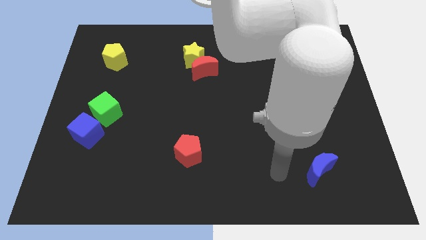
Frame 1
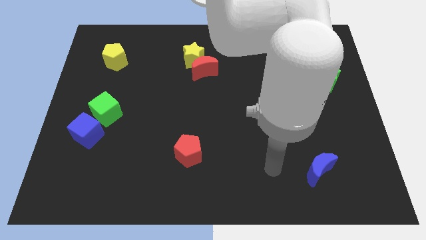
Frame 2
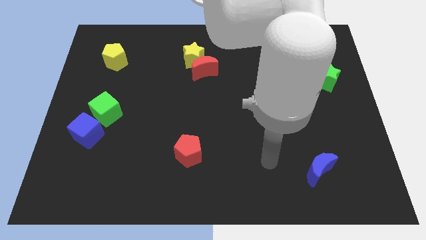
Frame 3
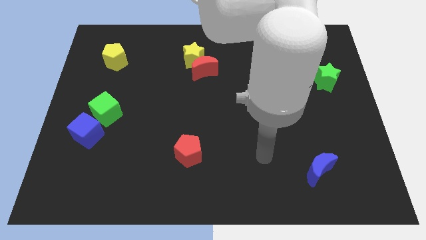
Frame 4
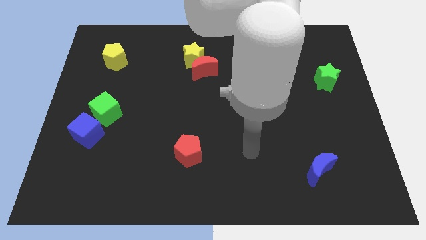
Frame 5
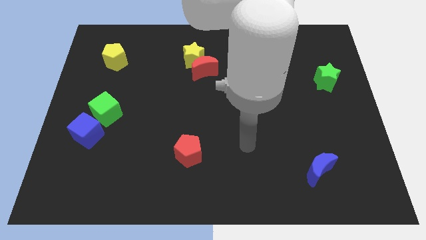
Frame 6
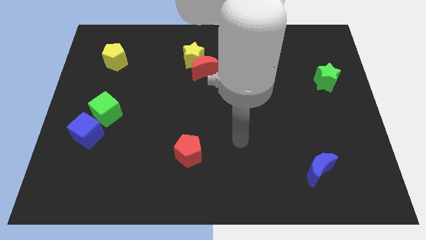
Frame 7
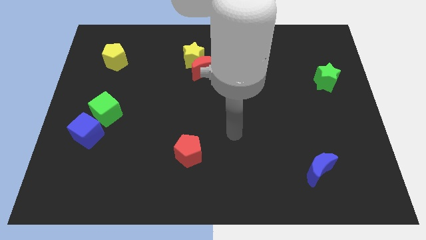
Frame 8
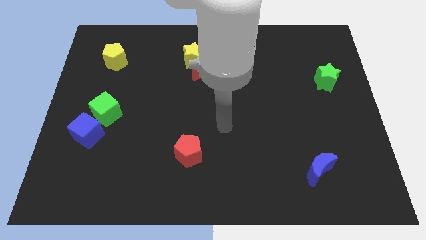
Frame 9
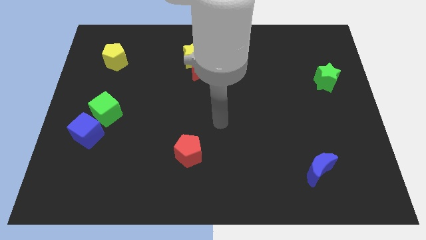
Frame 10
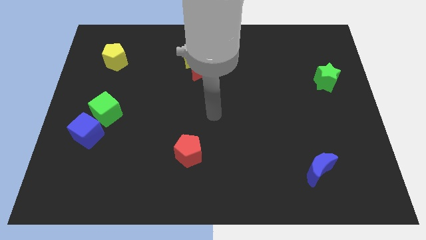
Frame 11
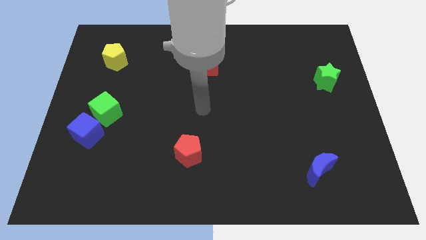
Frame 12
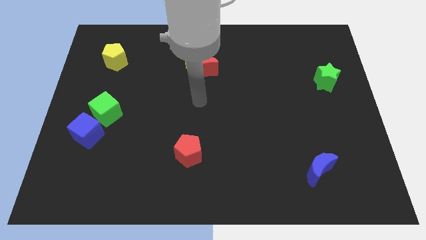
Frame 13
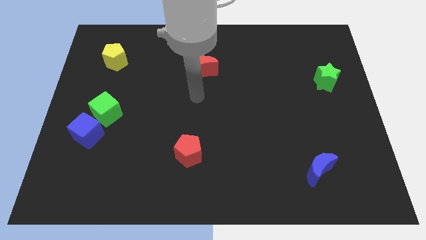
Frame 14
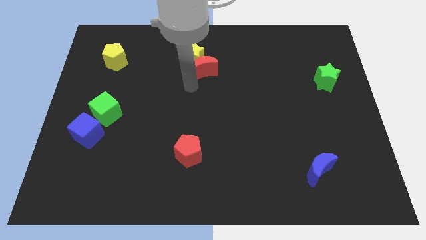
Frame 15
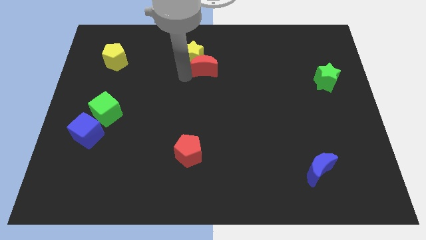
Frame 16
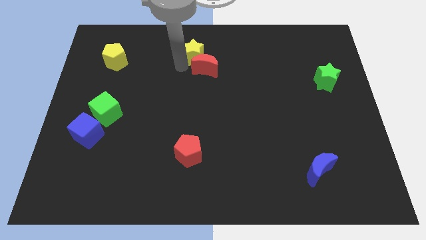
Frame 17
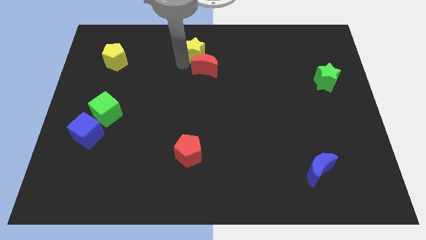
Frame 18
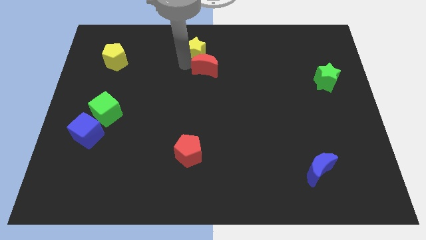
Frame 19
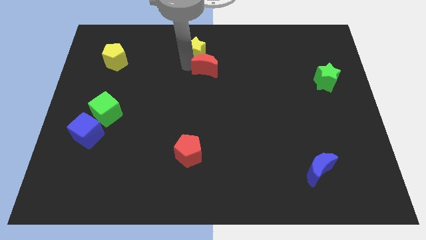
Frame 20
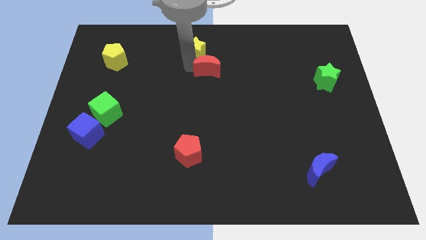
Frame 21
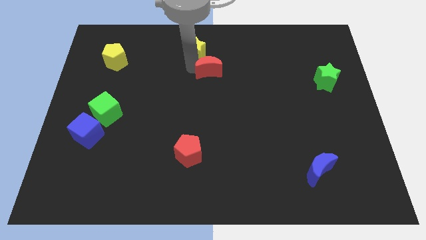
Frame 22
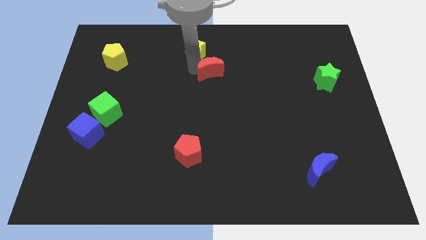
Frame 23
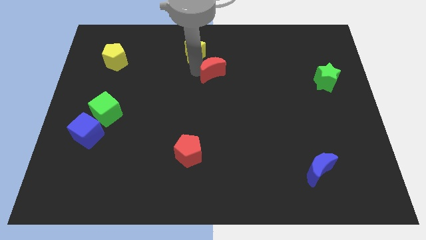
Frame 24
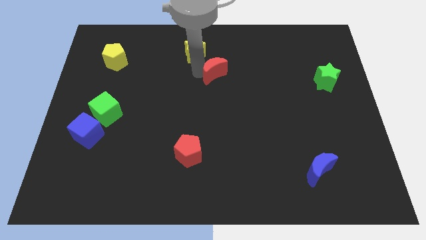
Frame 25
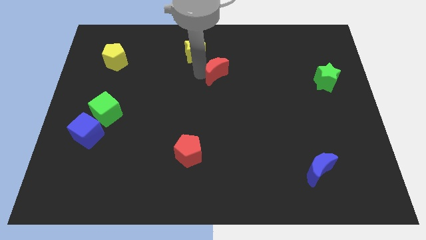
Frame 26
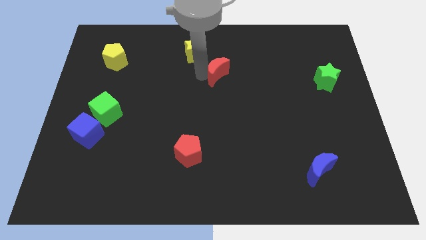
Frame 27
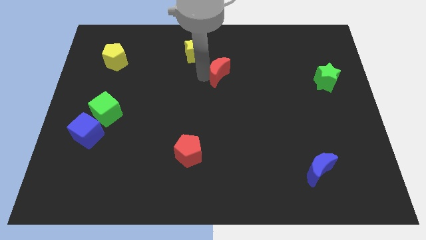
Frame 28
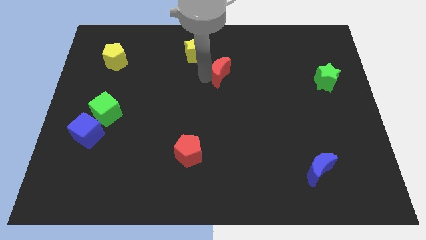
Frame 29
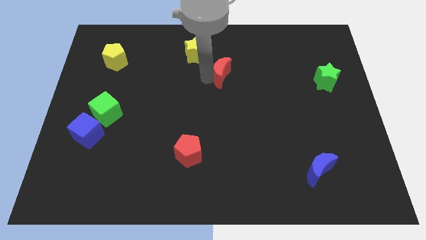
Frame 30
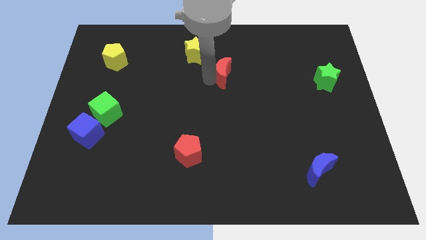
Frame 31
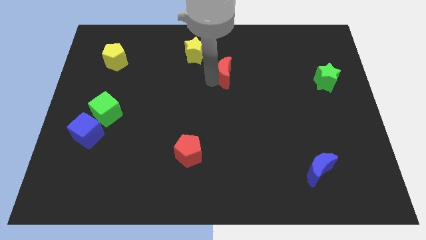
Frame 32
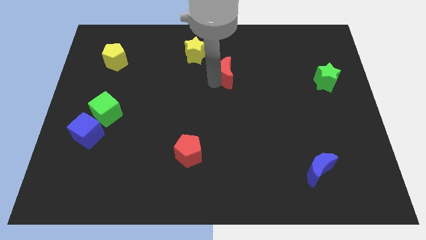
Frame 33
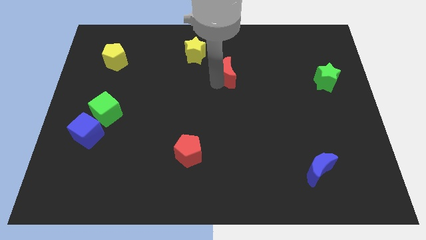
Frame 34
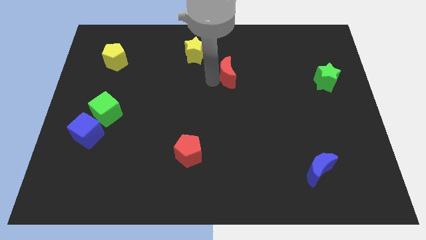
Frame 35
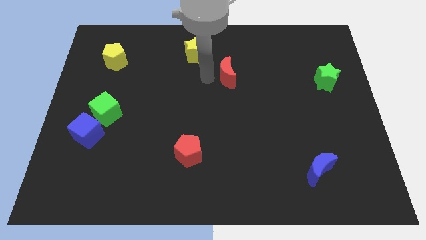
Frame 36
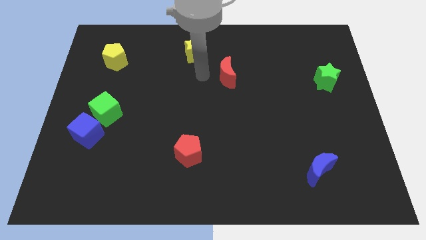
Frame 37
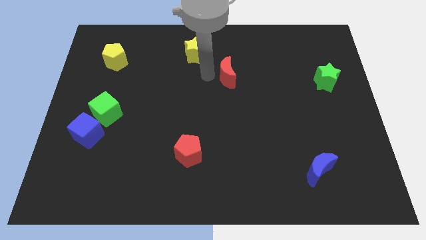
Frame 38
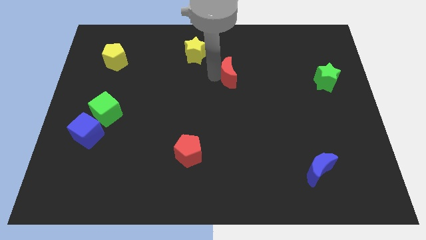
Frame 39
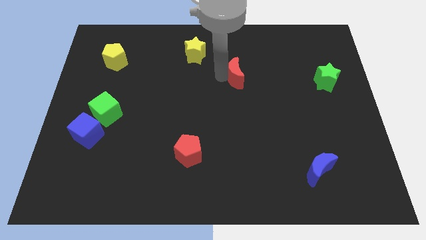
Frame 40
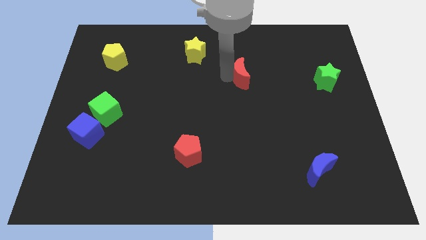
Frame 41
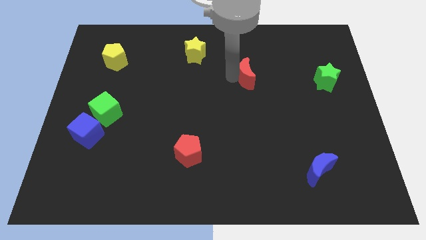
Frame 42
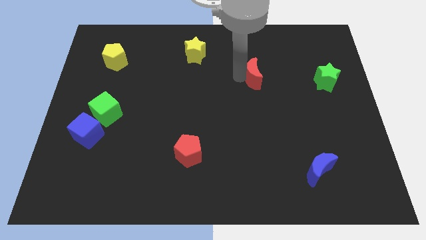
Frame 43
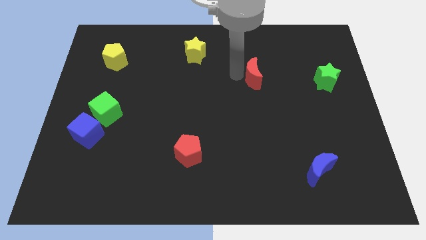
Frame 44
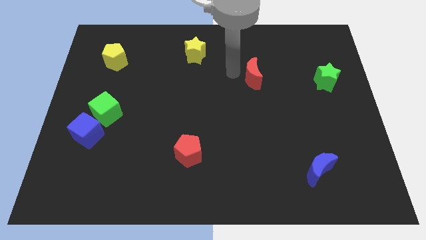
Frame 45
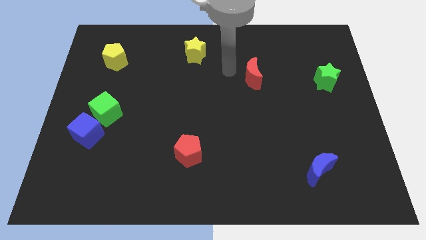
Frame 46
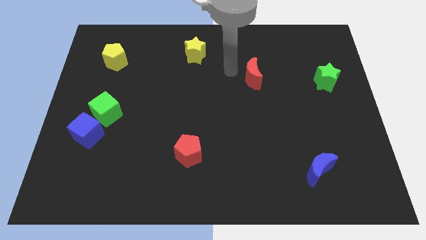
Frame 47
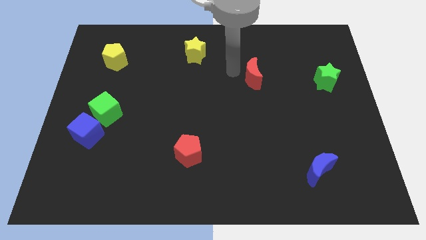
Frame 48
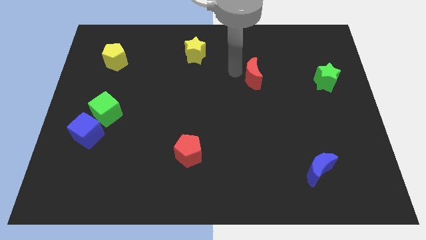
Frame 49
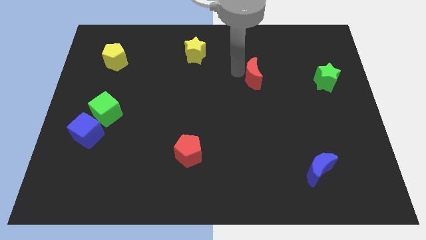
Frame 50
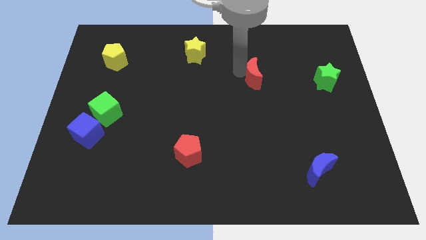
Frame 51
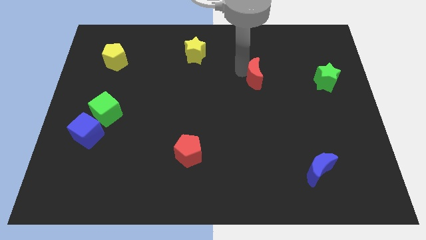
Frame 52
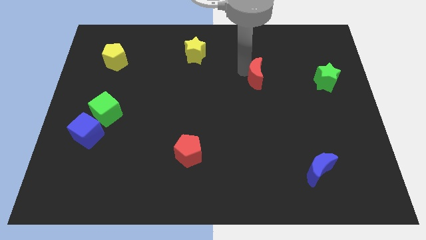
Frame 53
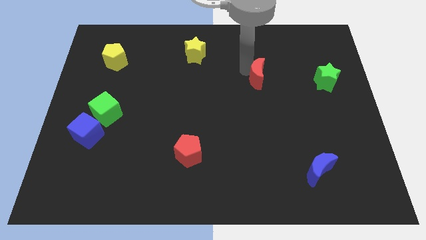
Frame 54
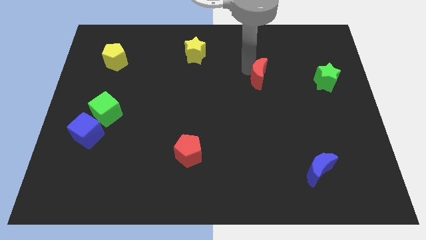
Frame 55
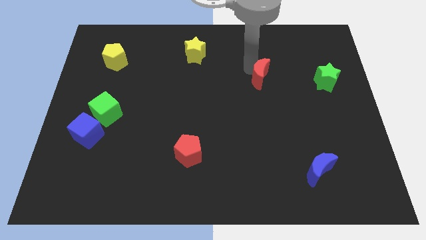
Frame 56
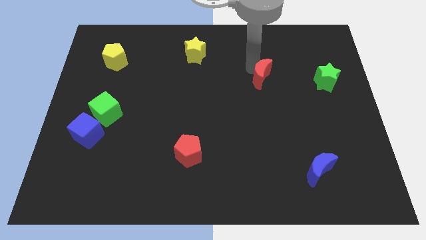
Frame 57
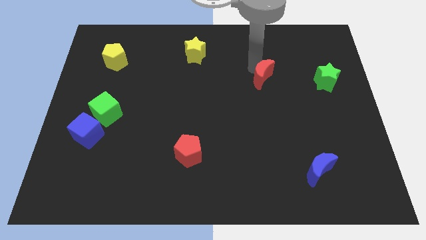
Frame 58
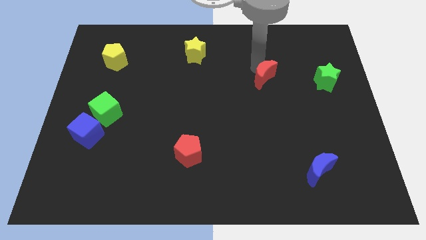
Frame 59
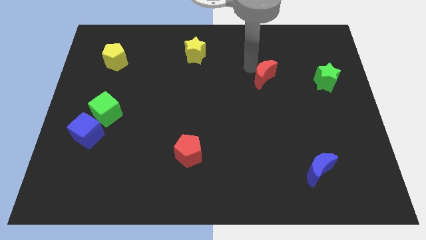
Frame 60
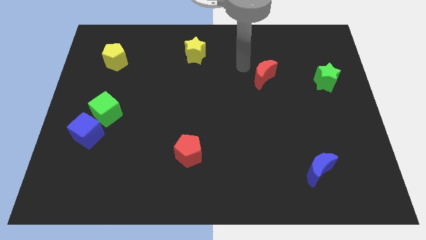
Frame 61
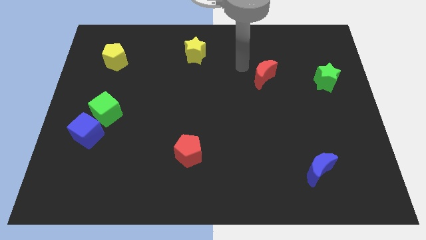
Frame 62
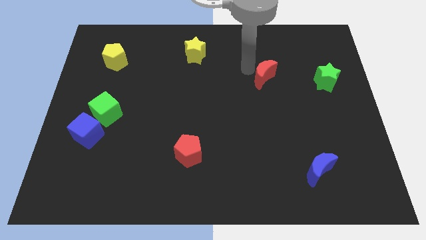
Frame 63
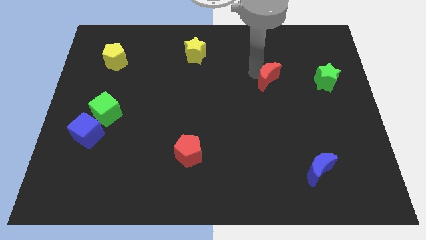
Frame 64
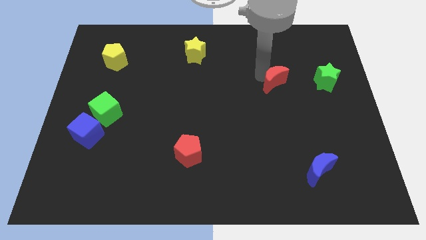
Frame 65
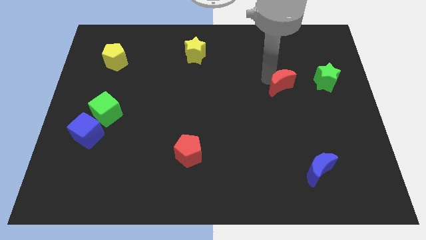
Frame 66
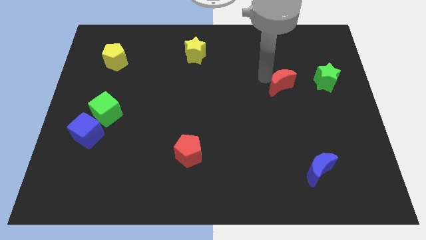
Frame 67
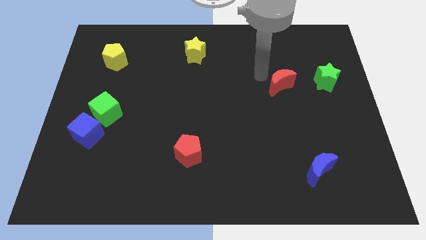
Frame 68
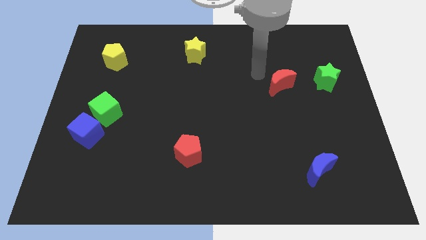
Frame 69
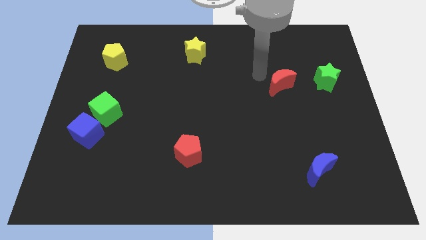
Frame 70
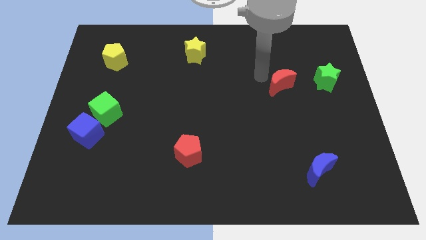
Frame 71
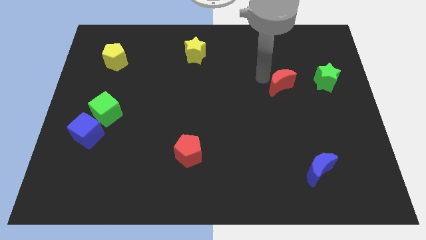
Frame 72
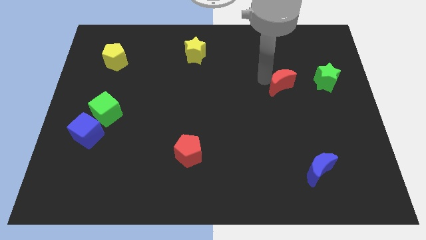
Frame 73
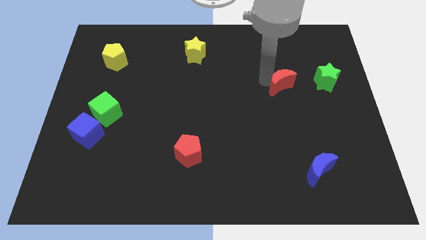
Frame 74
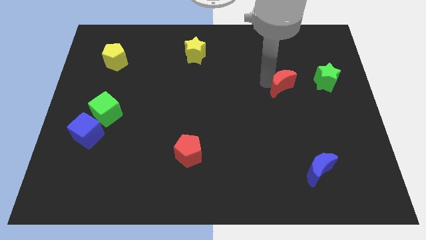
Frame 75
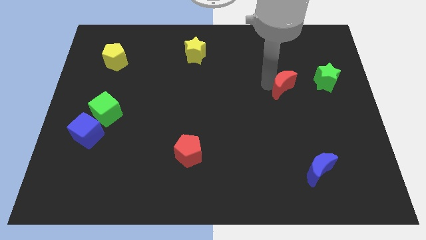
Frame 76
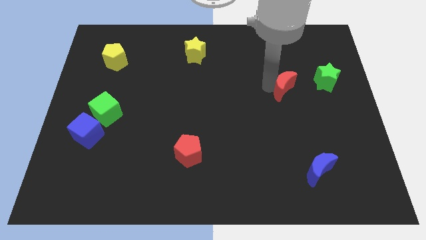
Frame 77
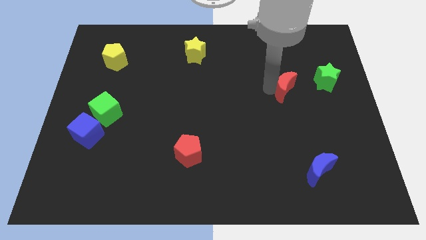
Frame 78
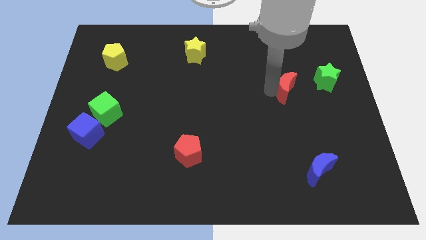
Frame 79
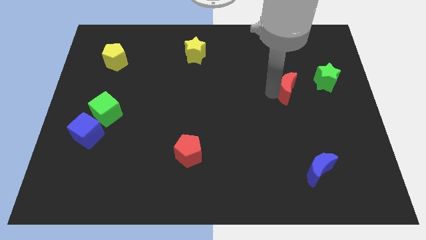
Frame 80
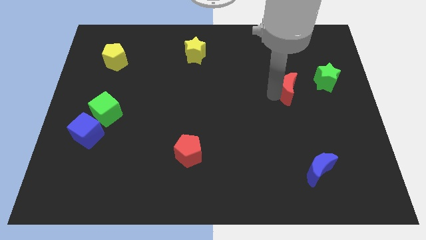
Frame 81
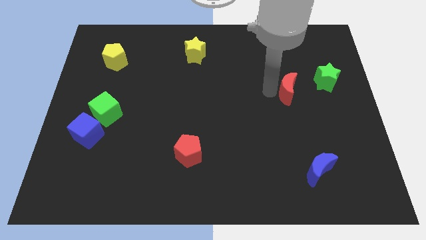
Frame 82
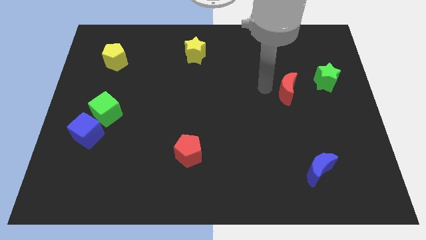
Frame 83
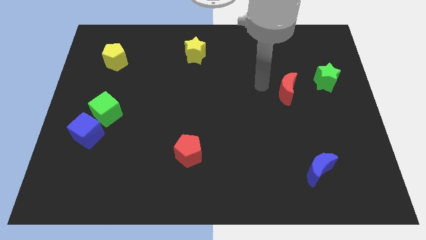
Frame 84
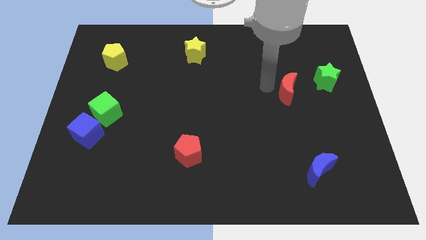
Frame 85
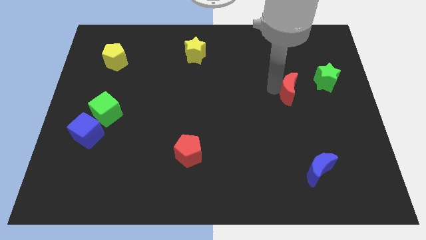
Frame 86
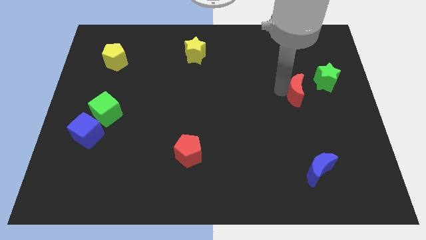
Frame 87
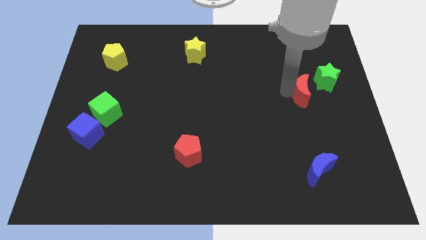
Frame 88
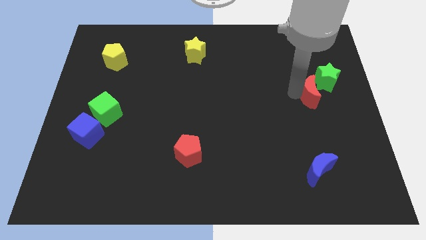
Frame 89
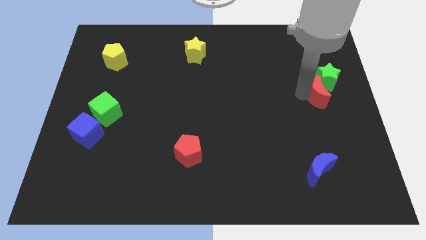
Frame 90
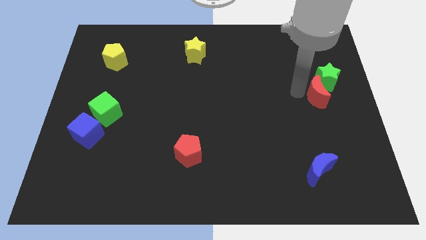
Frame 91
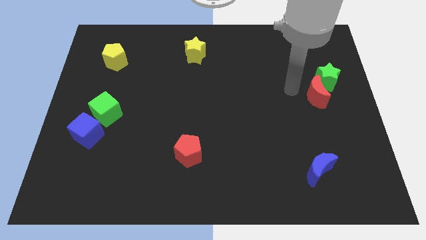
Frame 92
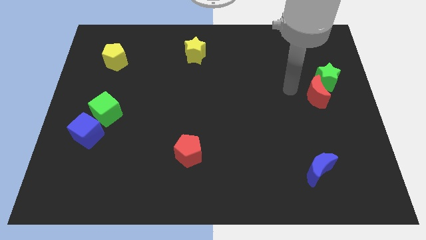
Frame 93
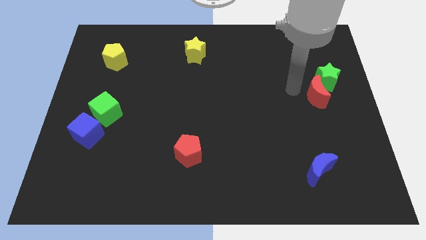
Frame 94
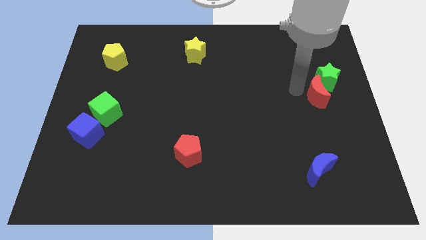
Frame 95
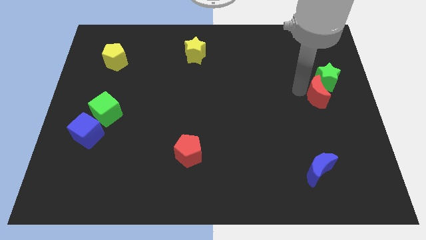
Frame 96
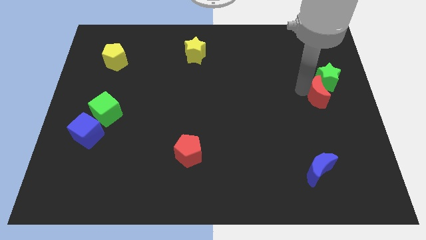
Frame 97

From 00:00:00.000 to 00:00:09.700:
push the red moon to the center right
